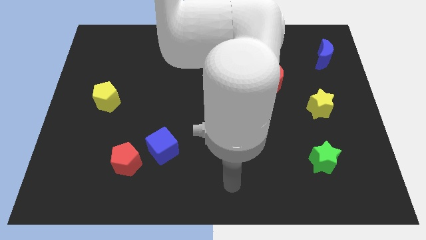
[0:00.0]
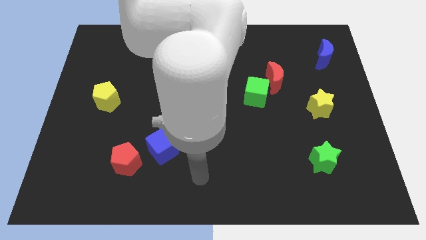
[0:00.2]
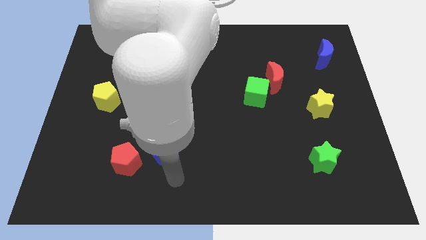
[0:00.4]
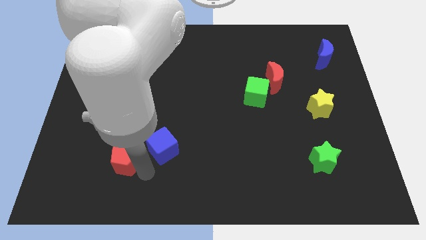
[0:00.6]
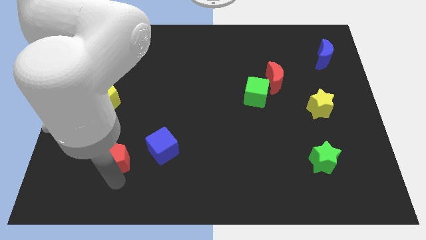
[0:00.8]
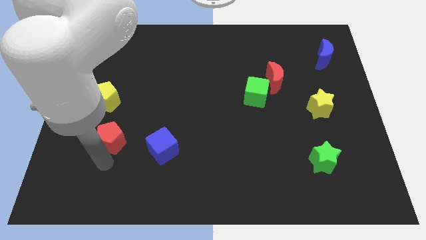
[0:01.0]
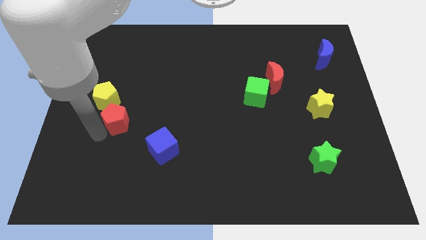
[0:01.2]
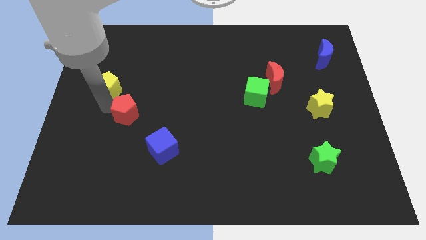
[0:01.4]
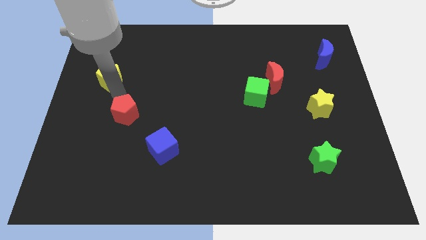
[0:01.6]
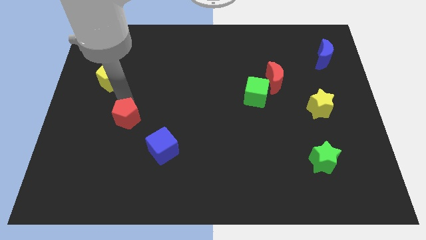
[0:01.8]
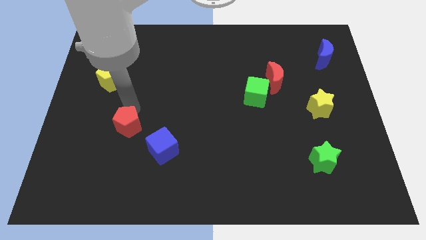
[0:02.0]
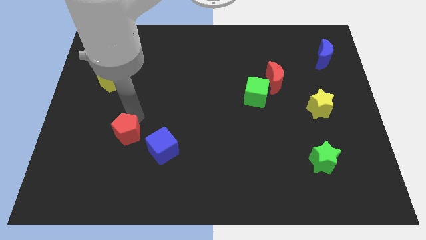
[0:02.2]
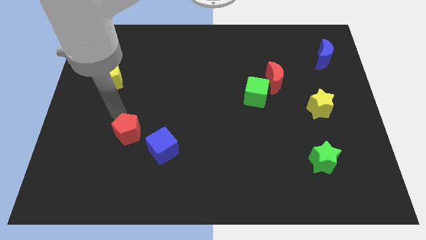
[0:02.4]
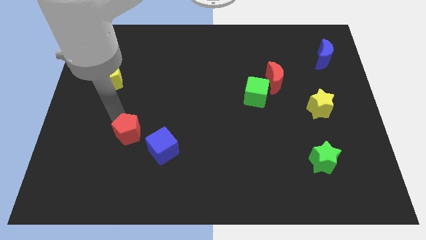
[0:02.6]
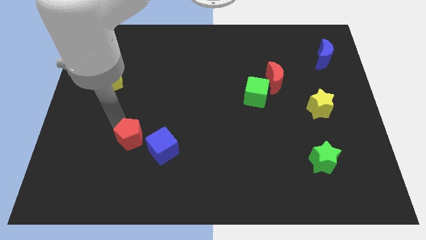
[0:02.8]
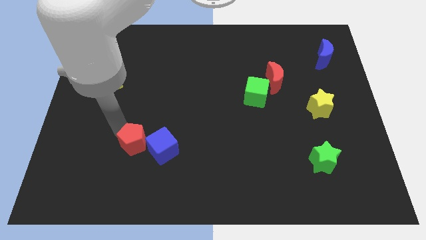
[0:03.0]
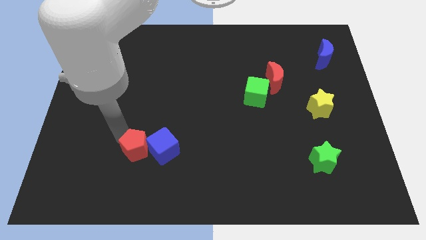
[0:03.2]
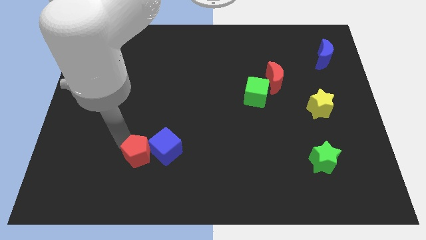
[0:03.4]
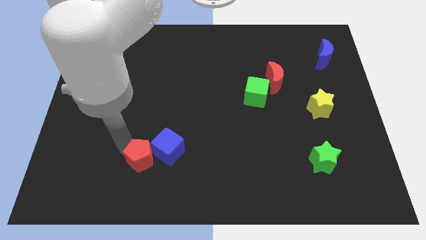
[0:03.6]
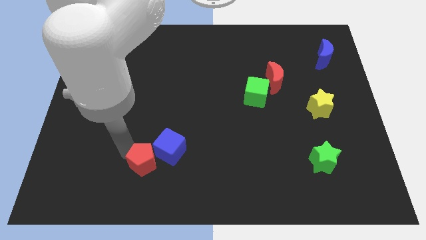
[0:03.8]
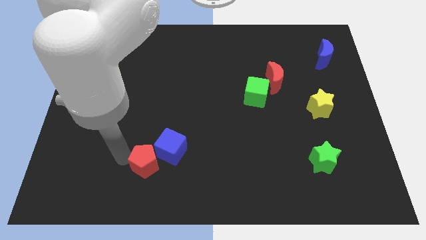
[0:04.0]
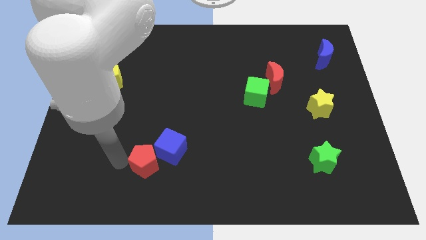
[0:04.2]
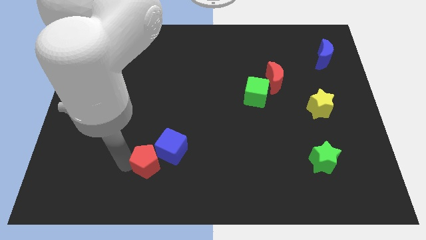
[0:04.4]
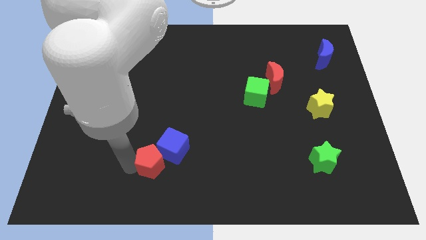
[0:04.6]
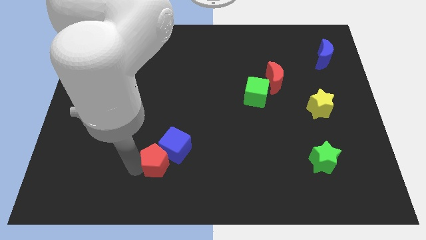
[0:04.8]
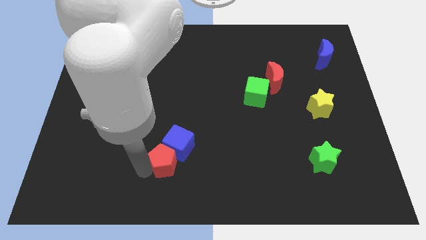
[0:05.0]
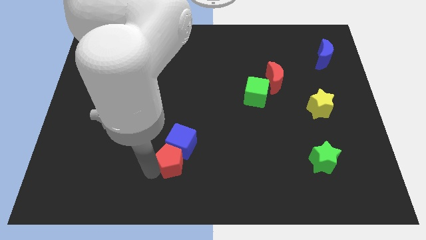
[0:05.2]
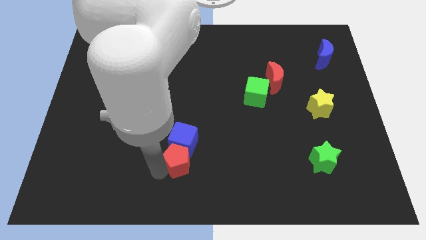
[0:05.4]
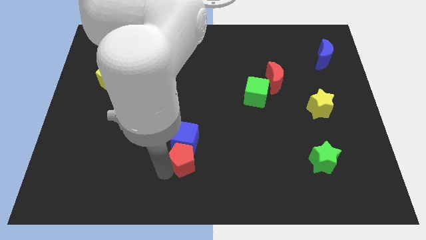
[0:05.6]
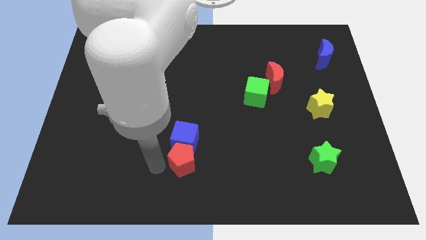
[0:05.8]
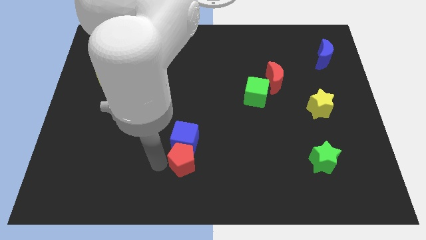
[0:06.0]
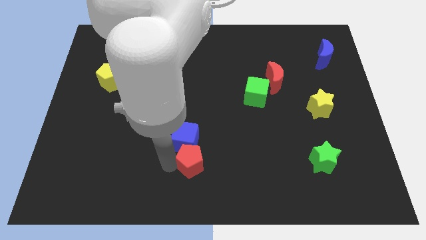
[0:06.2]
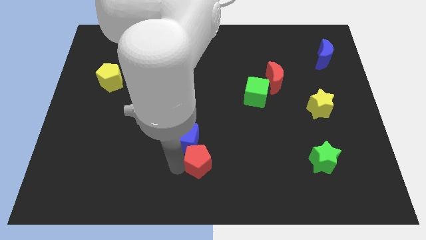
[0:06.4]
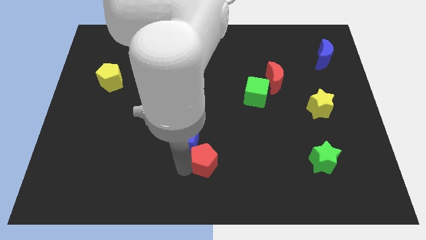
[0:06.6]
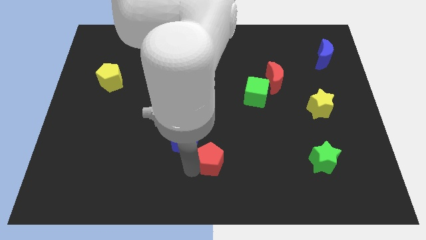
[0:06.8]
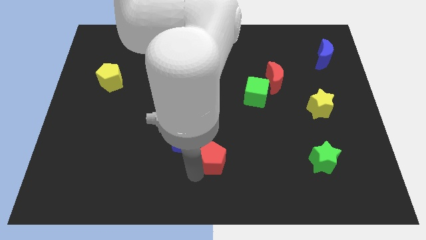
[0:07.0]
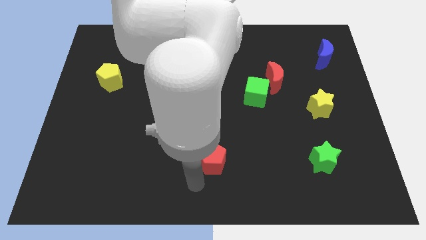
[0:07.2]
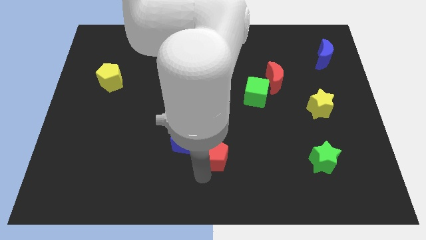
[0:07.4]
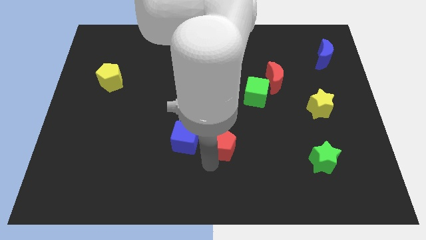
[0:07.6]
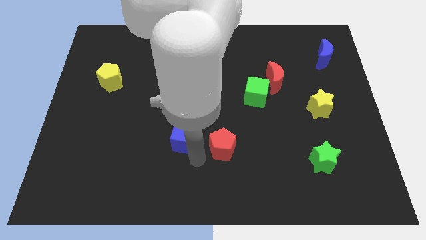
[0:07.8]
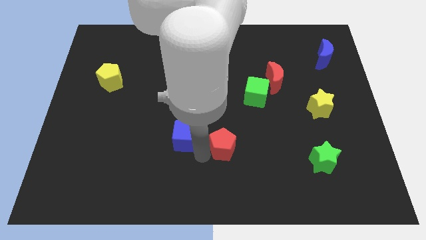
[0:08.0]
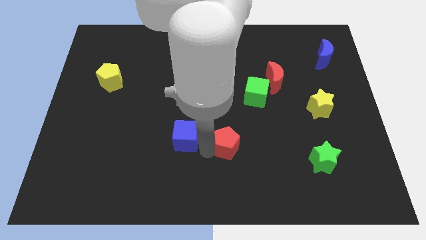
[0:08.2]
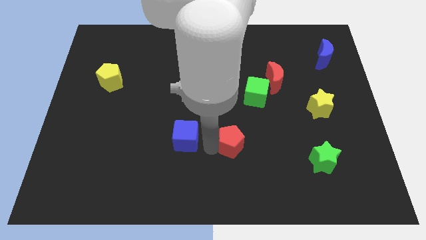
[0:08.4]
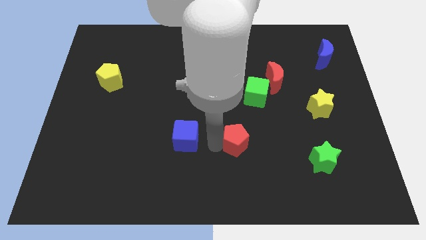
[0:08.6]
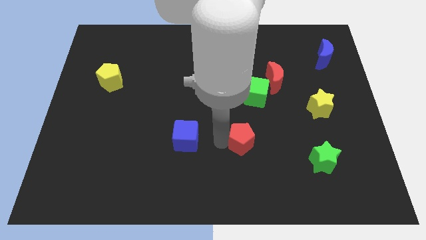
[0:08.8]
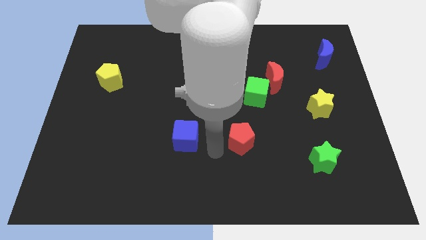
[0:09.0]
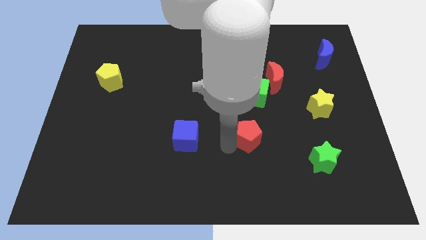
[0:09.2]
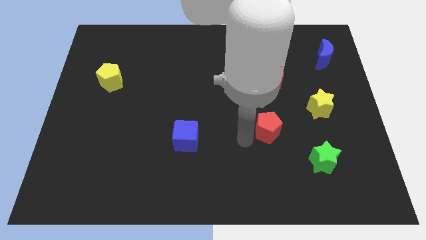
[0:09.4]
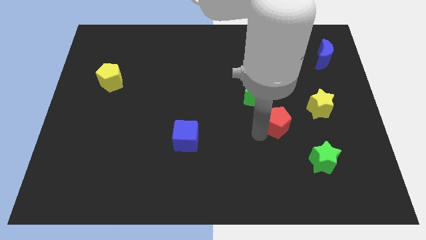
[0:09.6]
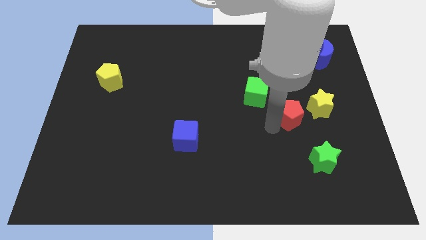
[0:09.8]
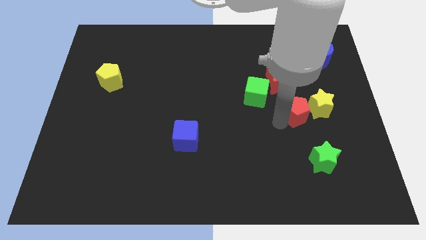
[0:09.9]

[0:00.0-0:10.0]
slide the red pentagon close to the yellow star
